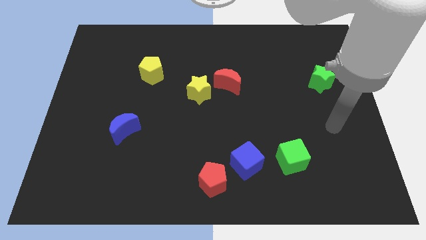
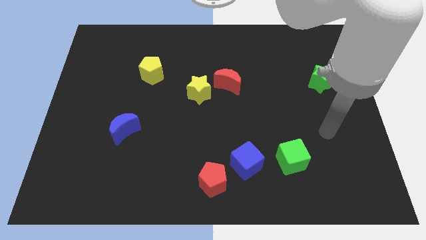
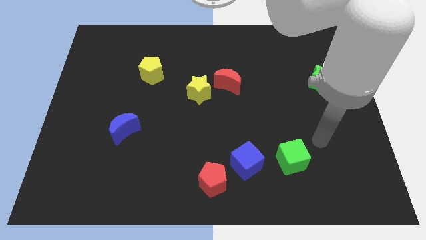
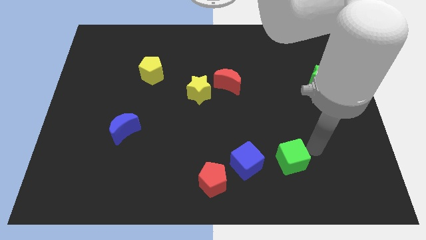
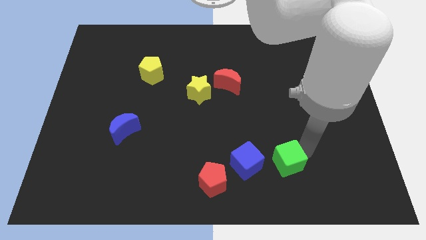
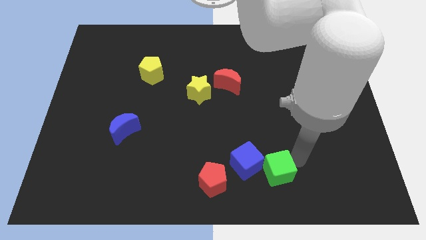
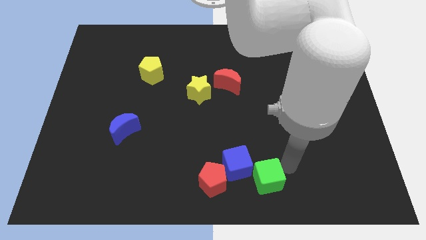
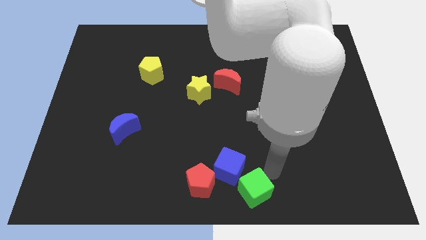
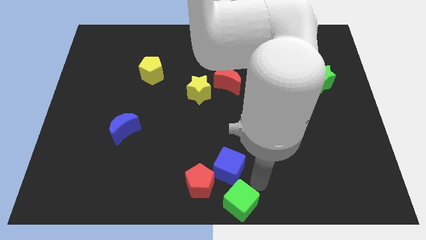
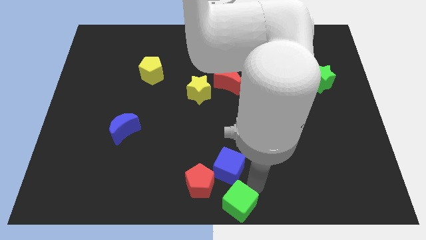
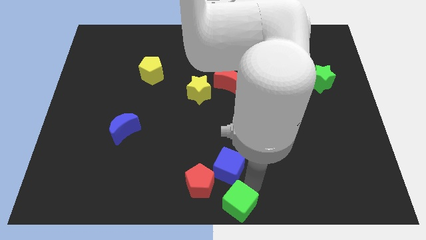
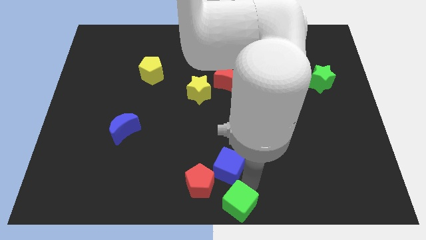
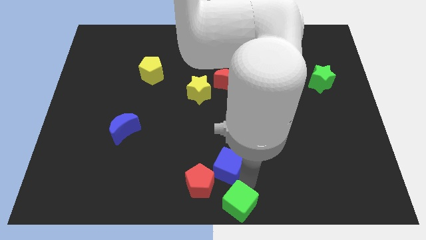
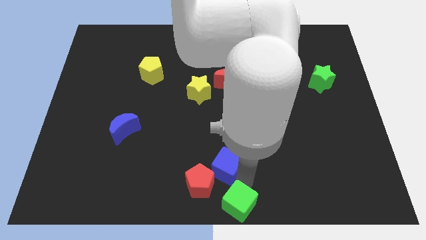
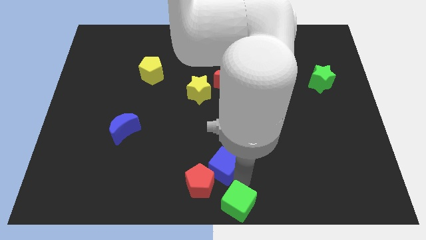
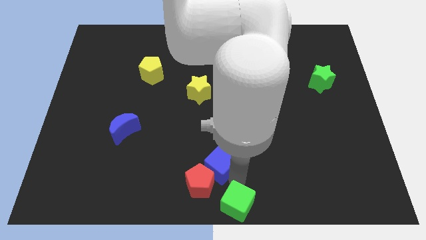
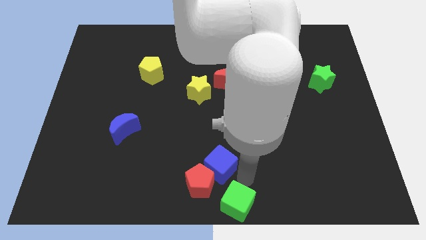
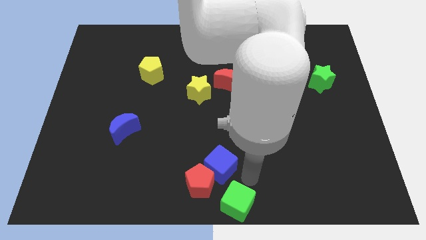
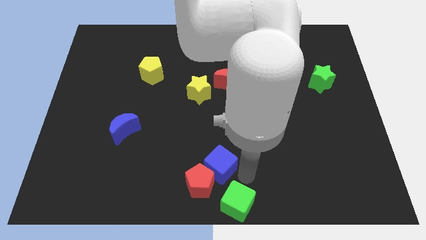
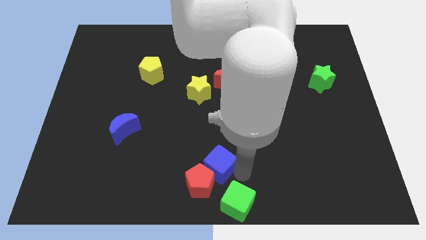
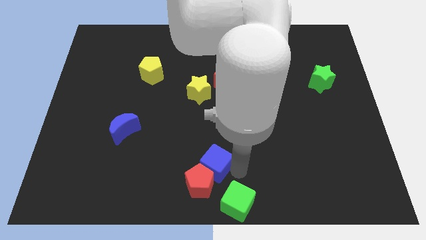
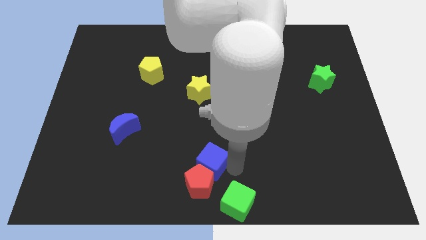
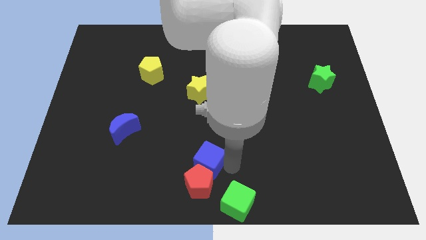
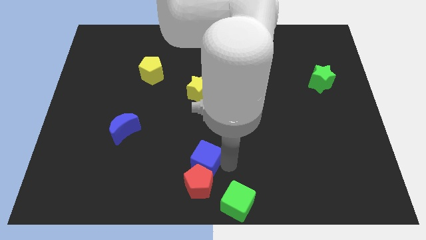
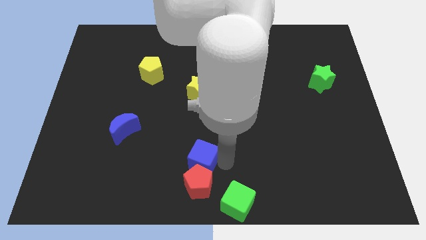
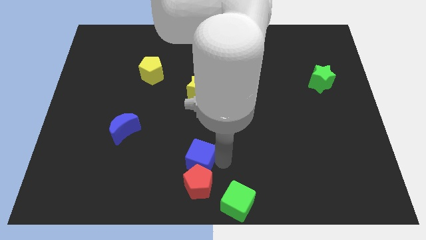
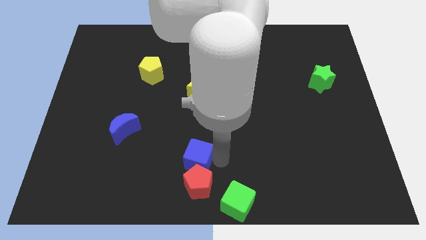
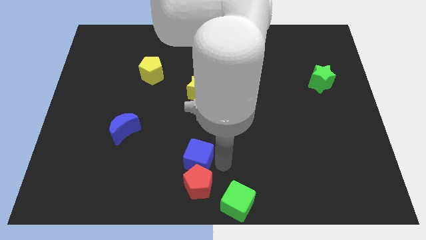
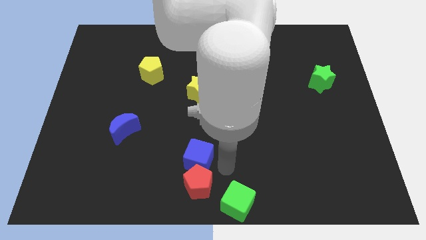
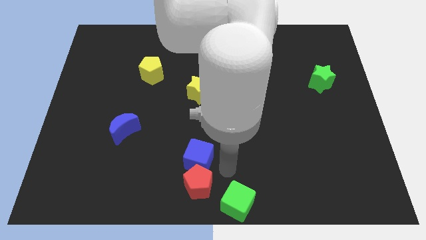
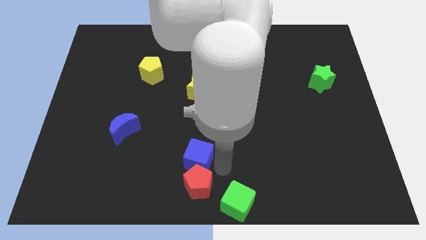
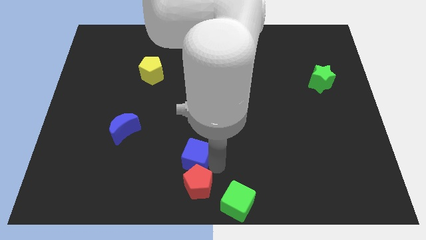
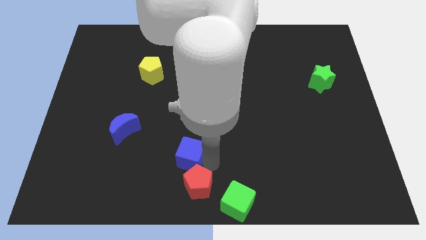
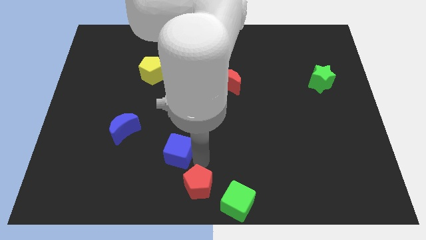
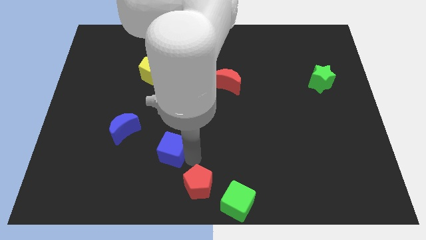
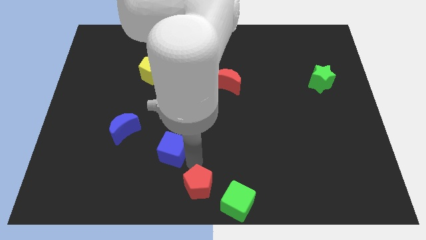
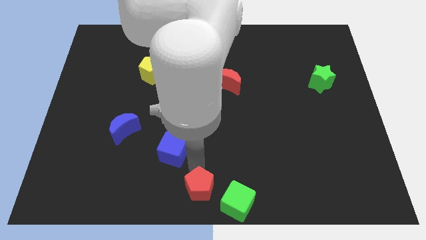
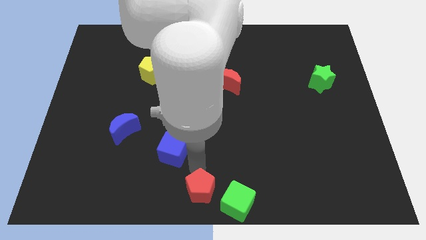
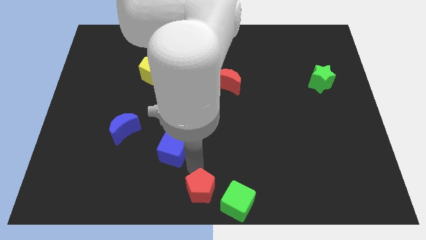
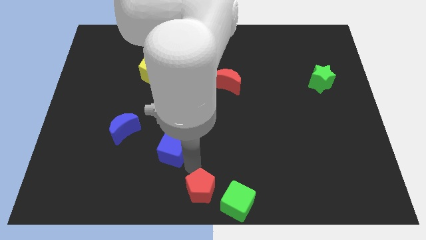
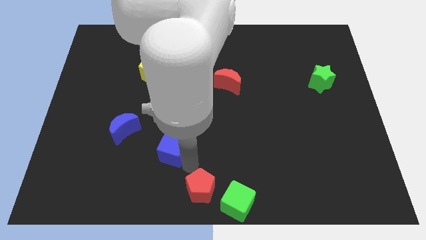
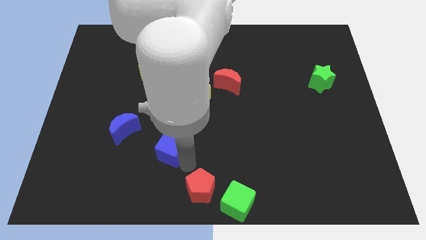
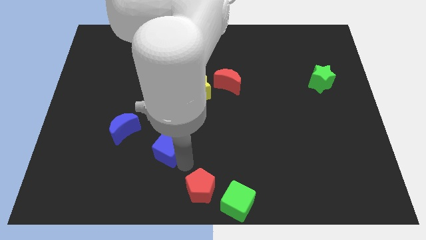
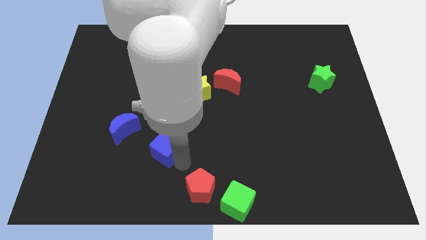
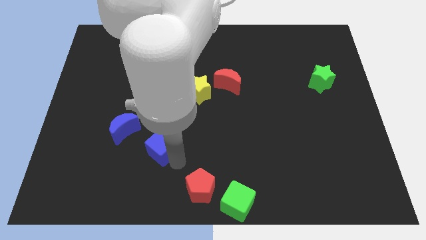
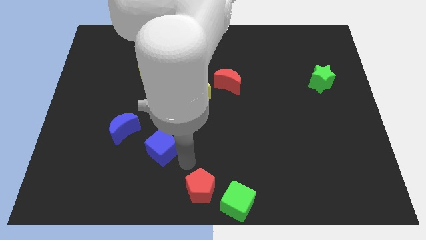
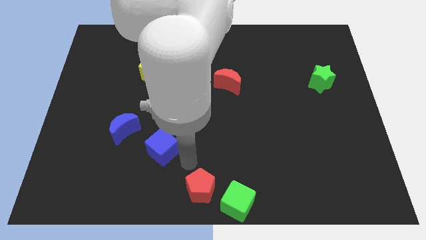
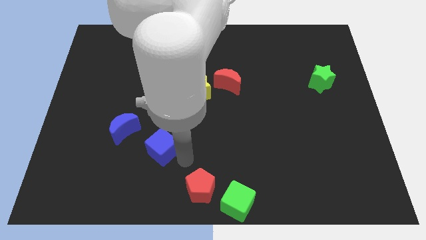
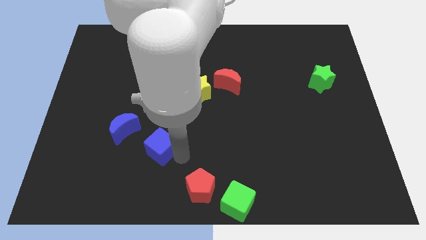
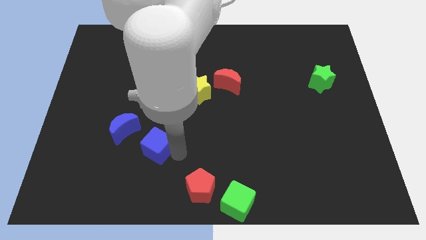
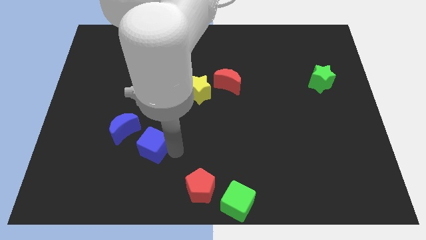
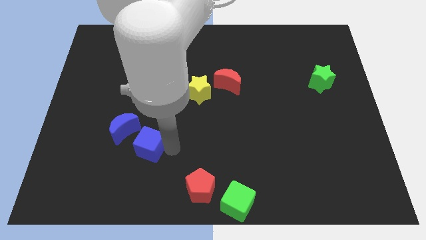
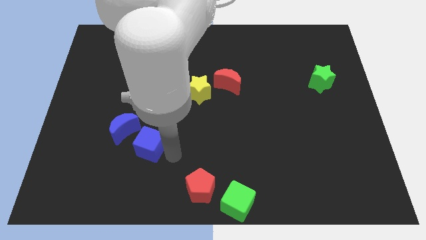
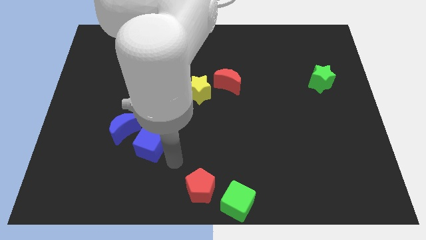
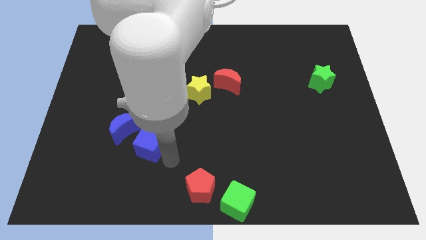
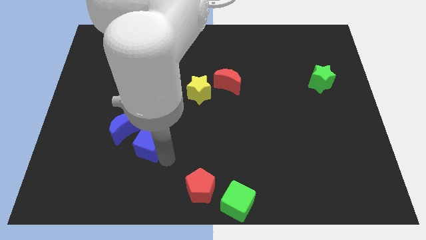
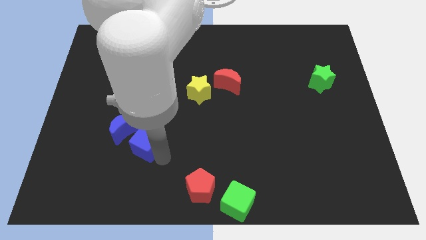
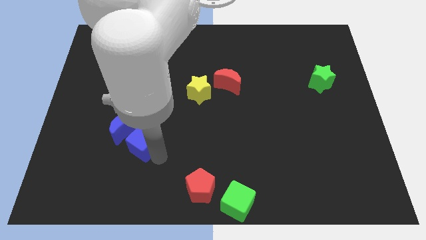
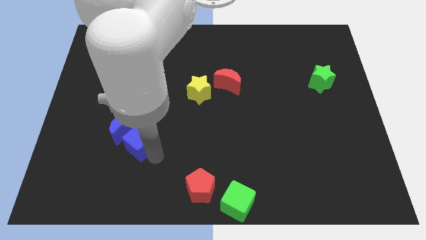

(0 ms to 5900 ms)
push the blue cube next to the blue moon

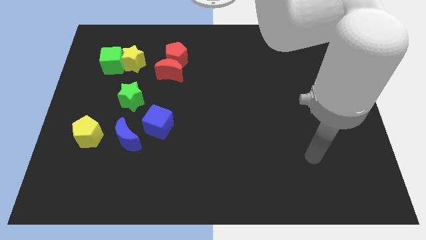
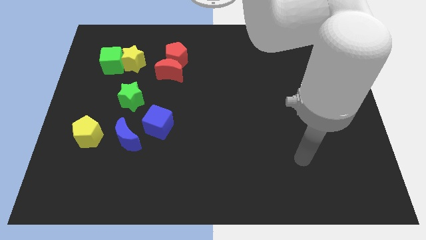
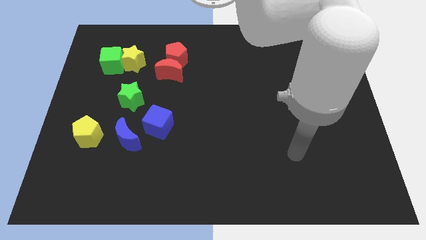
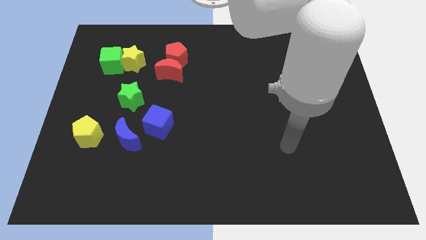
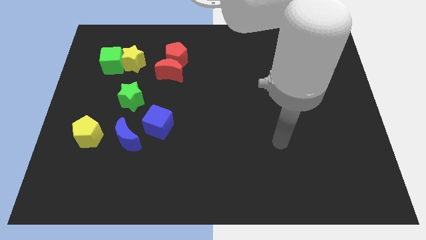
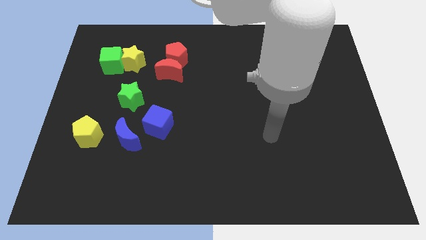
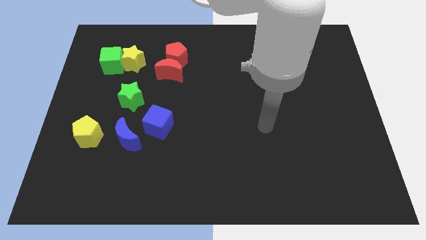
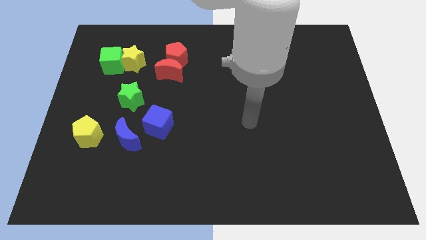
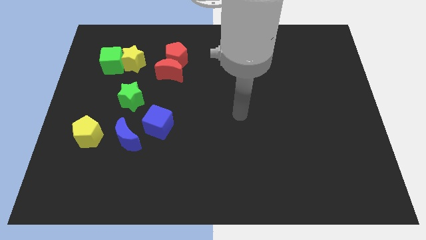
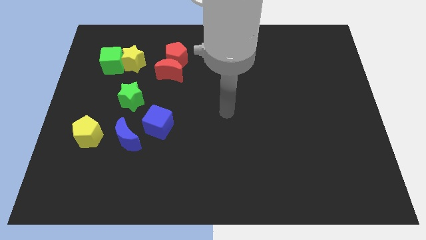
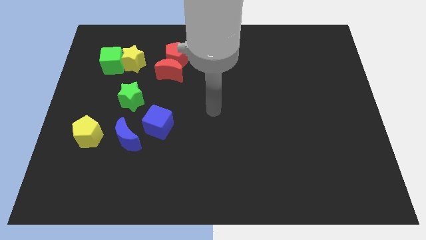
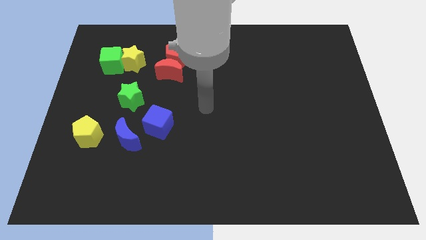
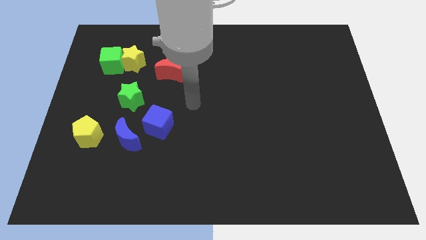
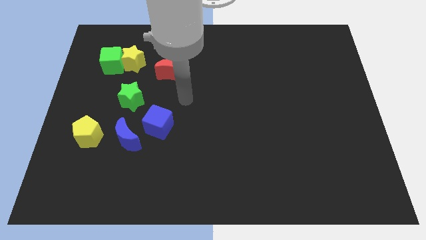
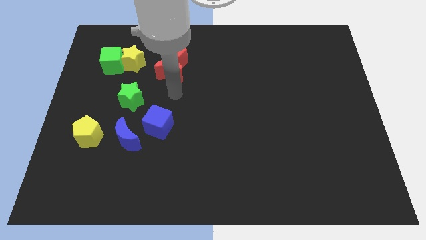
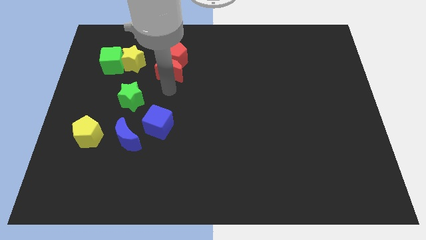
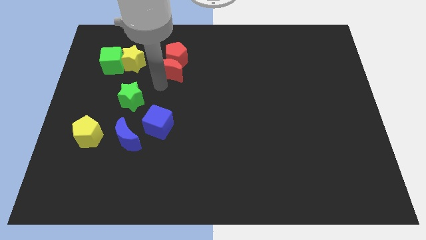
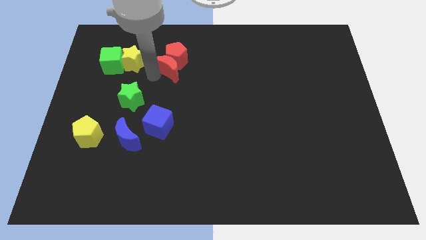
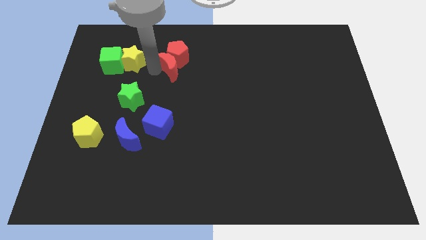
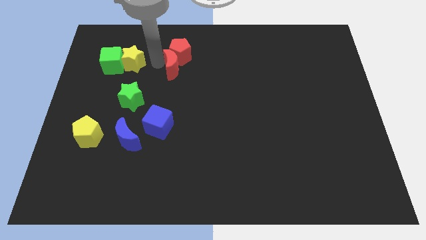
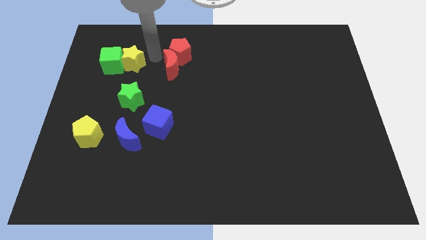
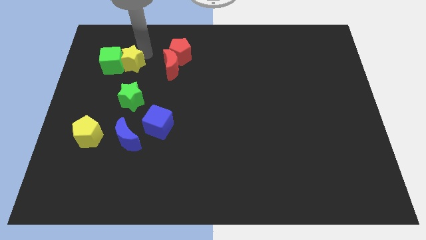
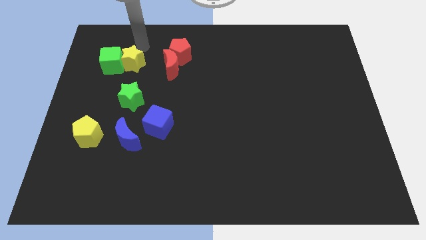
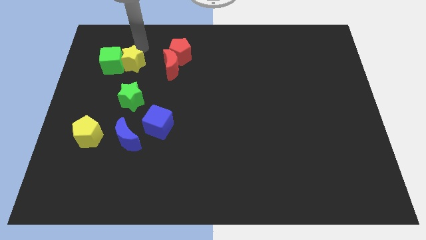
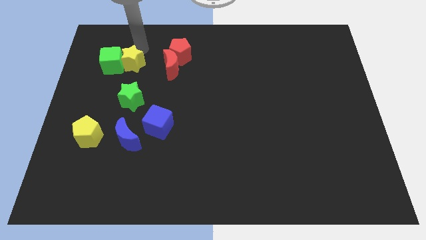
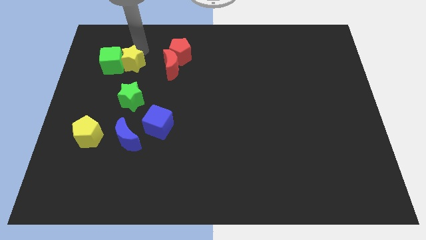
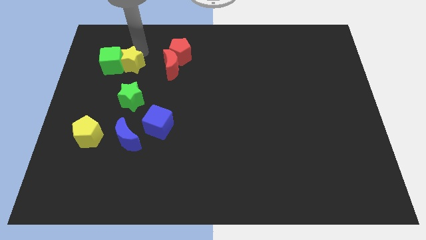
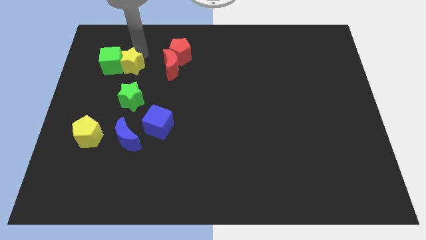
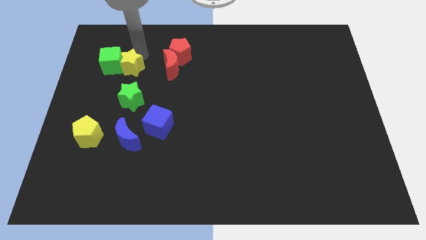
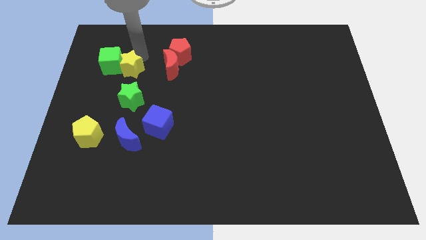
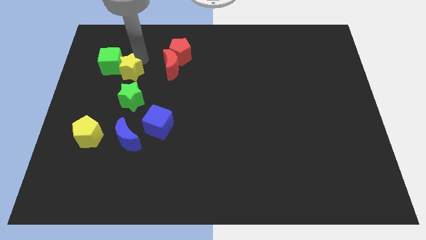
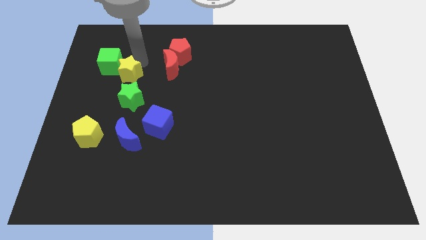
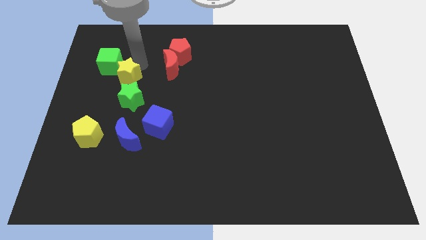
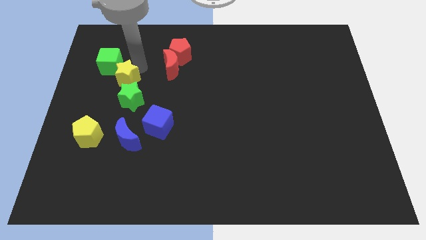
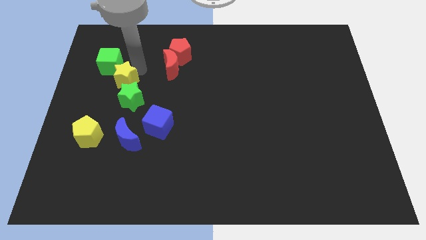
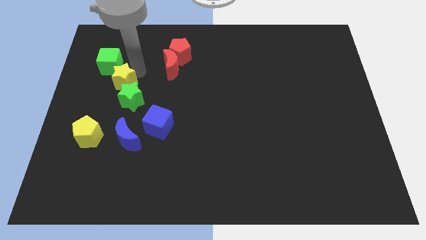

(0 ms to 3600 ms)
push the yellow star to the green star
